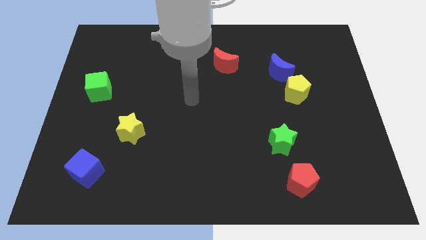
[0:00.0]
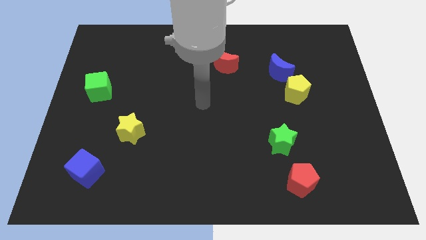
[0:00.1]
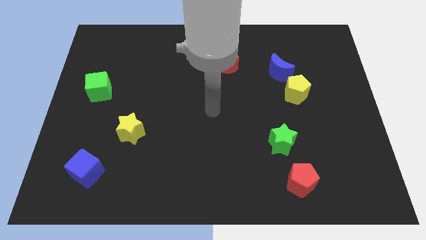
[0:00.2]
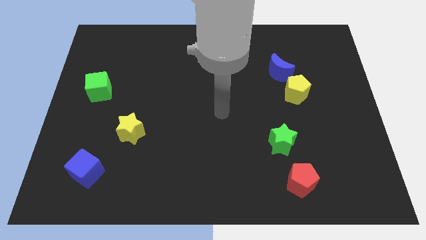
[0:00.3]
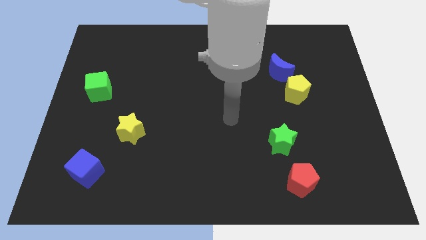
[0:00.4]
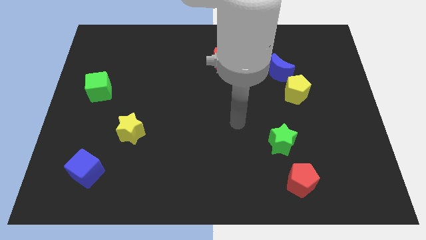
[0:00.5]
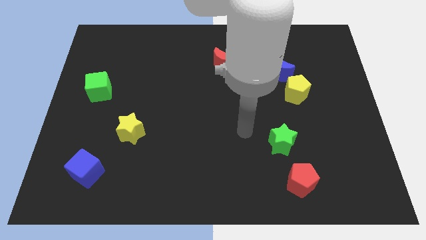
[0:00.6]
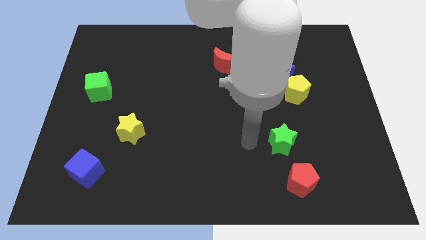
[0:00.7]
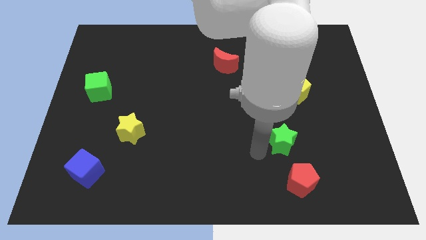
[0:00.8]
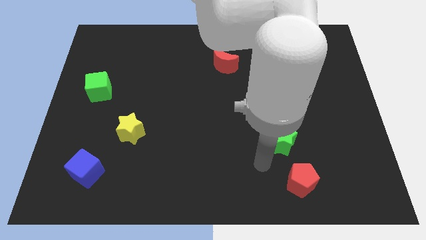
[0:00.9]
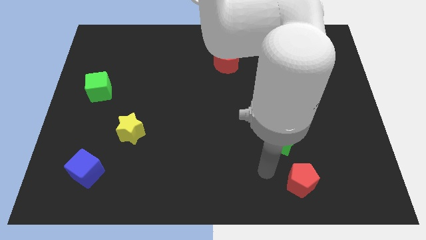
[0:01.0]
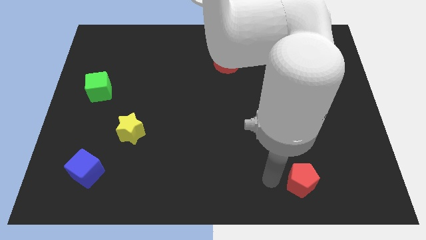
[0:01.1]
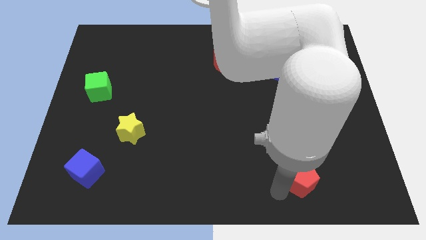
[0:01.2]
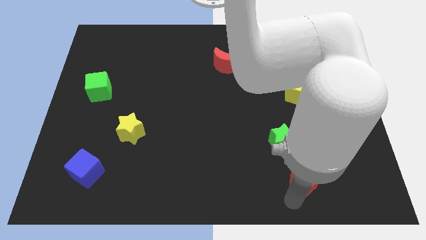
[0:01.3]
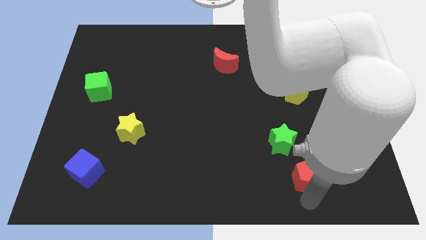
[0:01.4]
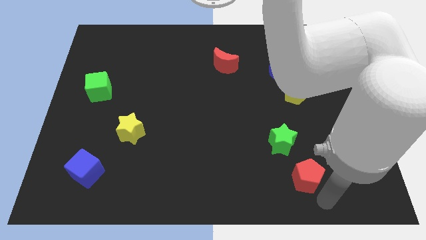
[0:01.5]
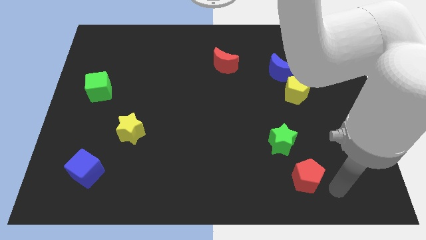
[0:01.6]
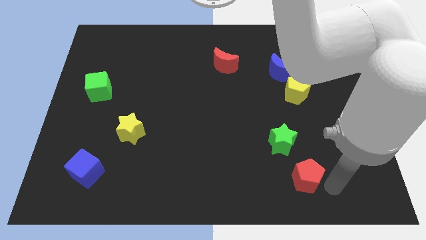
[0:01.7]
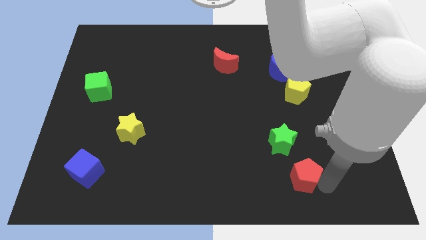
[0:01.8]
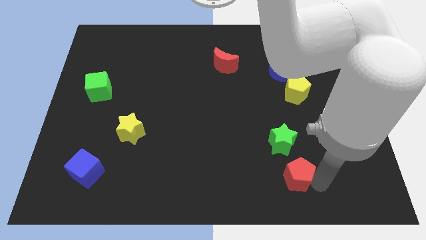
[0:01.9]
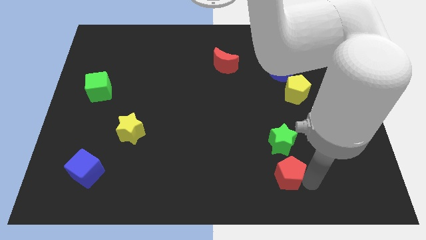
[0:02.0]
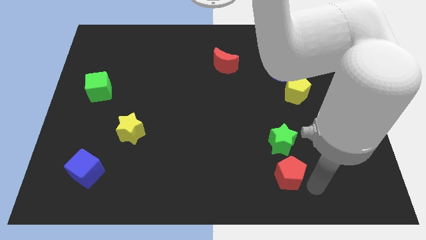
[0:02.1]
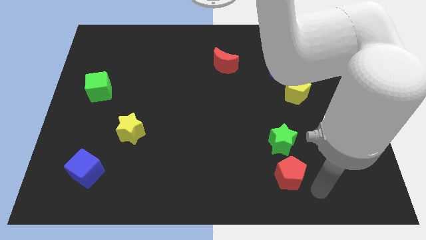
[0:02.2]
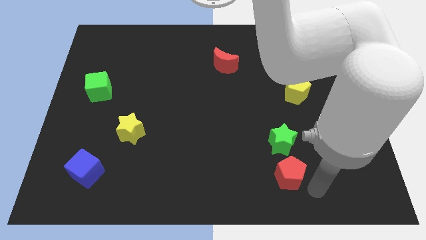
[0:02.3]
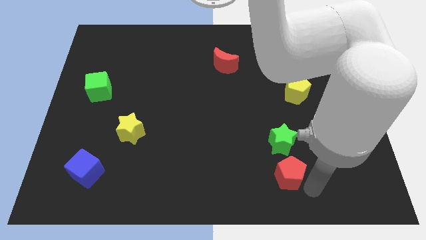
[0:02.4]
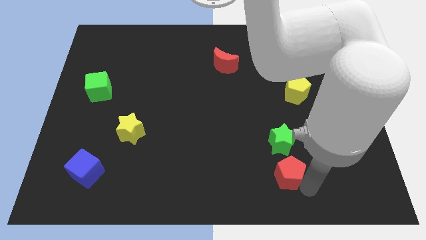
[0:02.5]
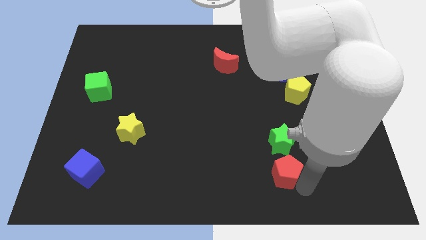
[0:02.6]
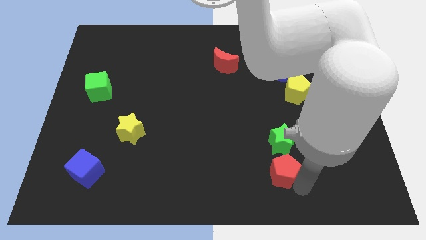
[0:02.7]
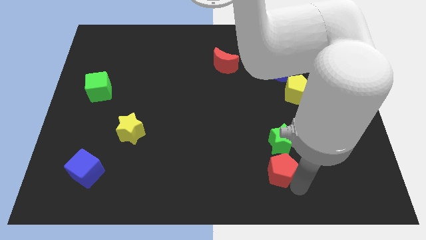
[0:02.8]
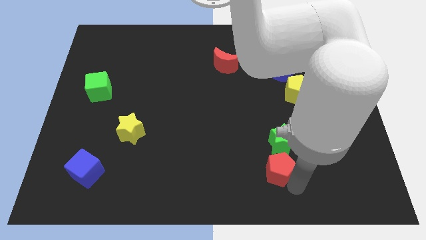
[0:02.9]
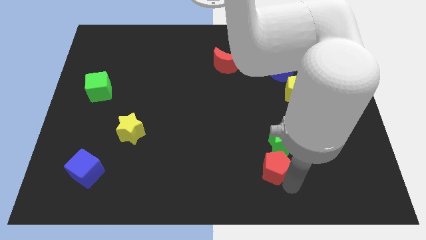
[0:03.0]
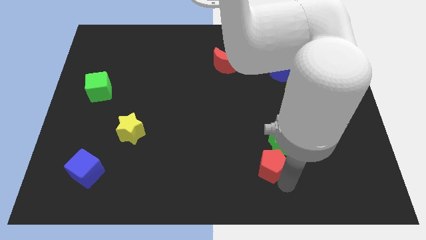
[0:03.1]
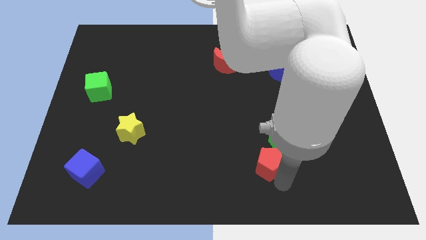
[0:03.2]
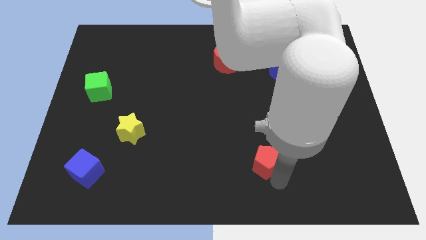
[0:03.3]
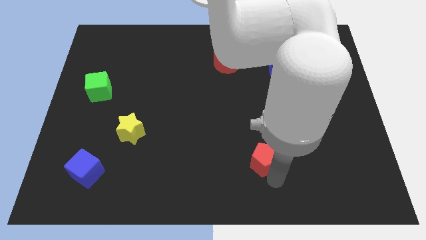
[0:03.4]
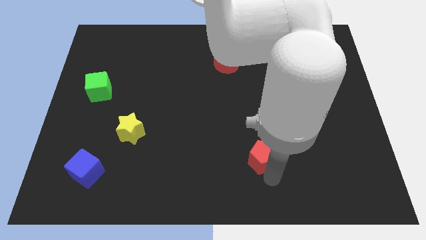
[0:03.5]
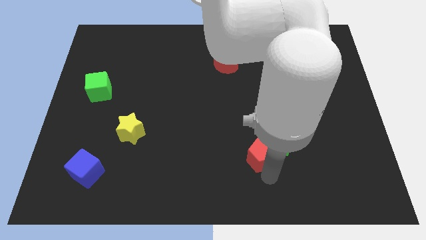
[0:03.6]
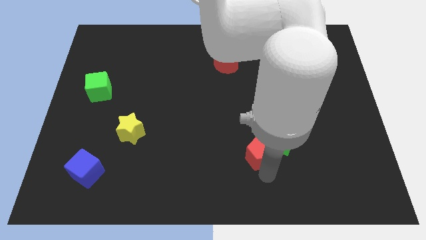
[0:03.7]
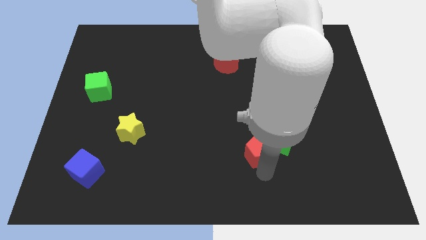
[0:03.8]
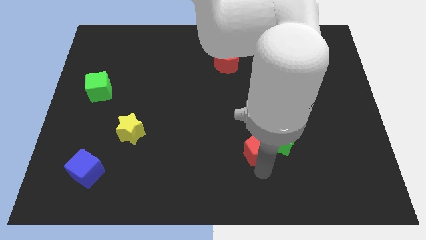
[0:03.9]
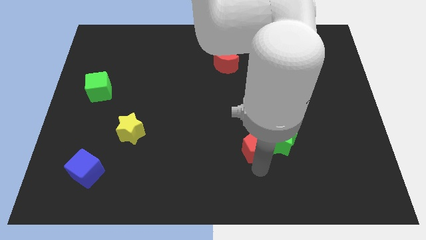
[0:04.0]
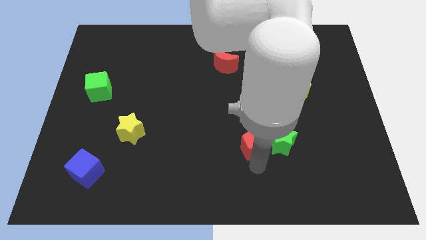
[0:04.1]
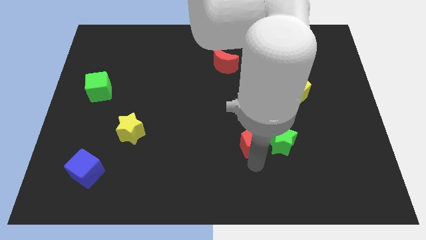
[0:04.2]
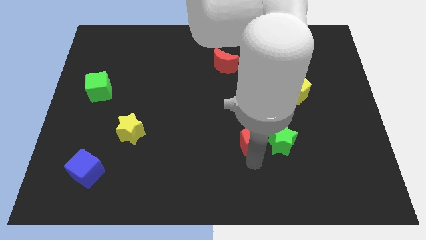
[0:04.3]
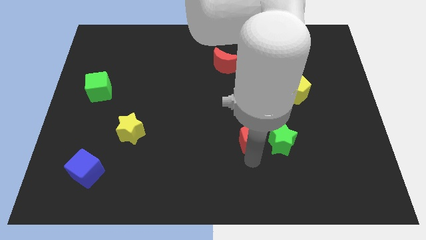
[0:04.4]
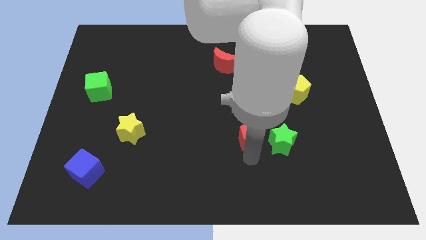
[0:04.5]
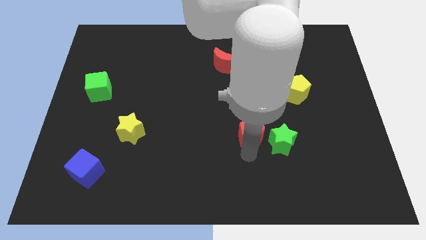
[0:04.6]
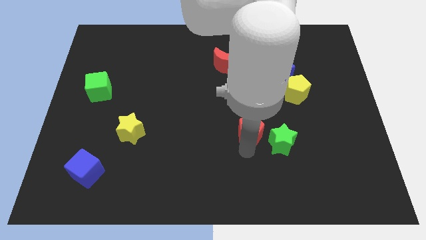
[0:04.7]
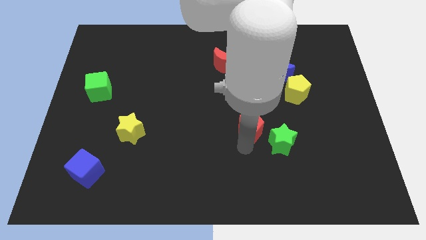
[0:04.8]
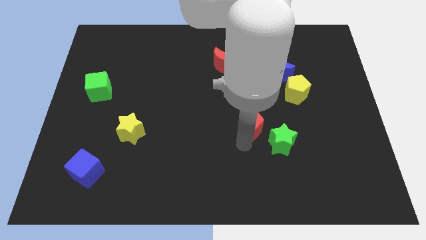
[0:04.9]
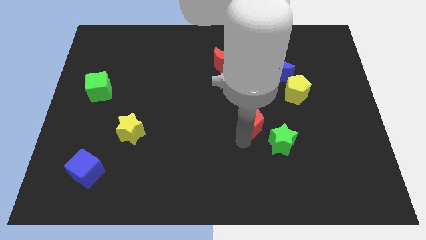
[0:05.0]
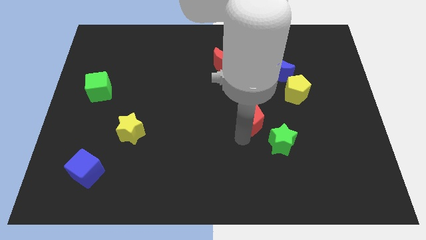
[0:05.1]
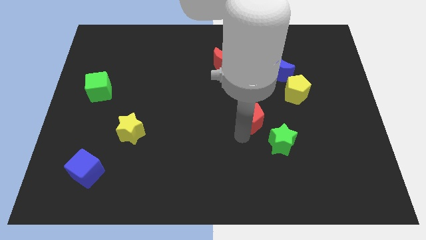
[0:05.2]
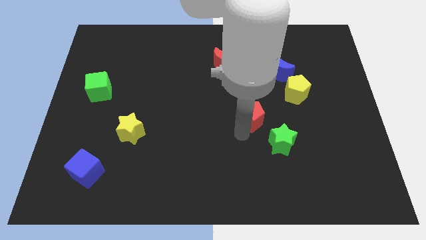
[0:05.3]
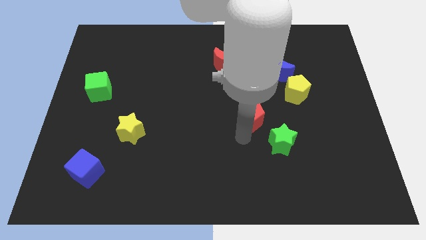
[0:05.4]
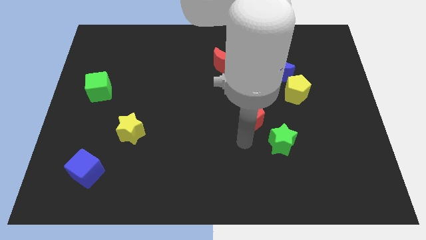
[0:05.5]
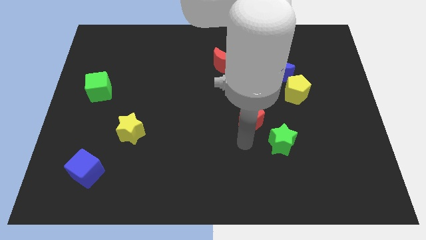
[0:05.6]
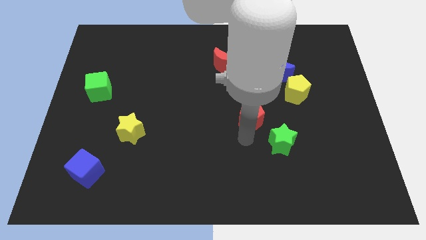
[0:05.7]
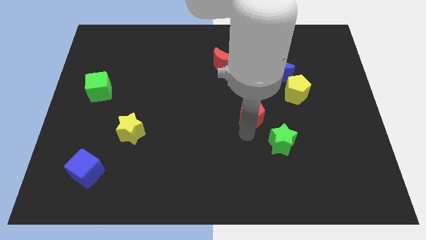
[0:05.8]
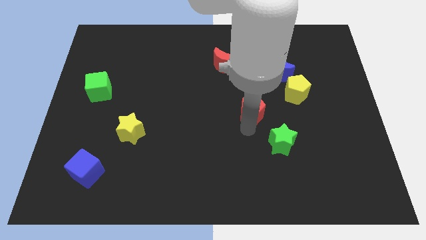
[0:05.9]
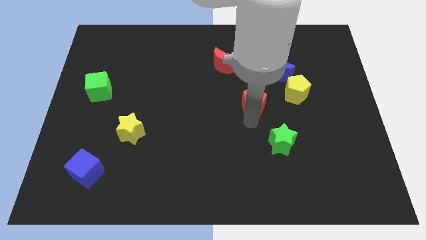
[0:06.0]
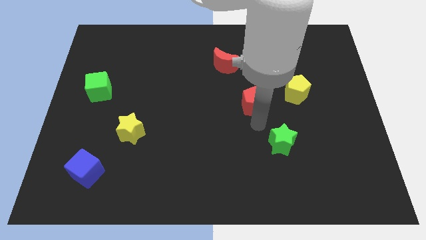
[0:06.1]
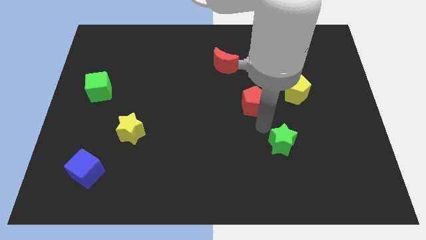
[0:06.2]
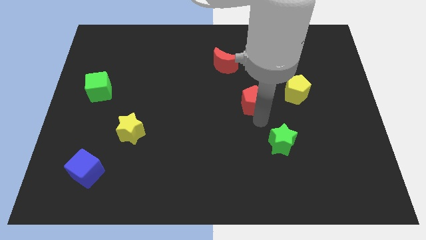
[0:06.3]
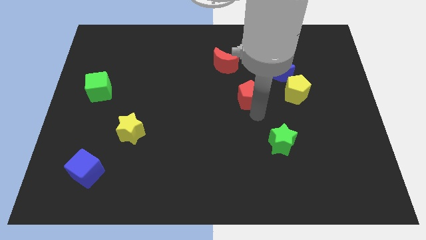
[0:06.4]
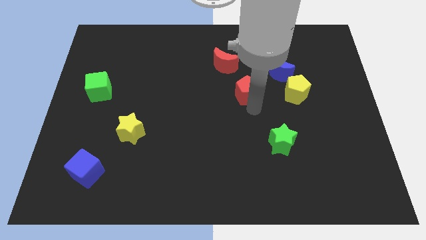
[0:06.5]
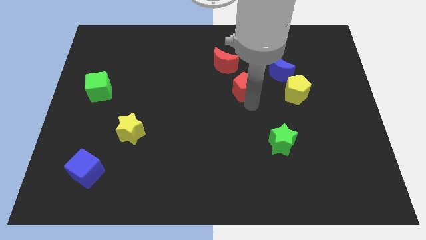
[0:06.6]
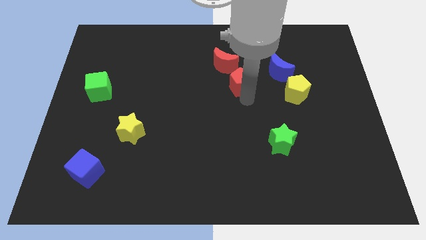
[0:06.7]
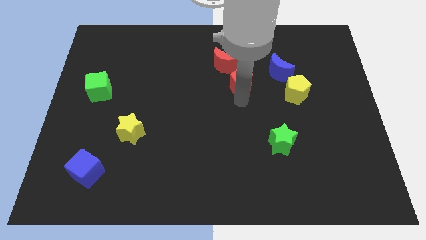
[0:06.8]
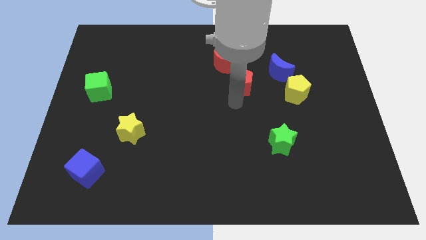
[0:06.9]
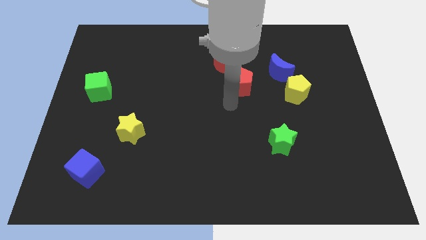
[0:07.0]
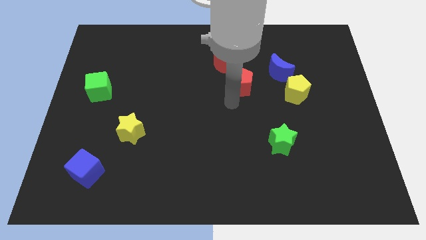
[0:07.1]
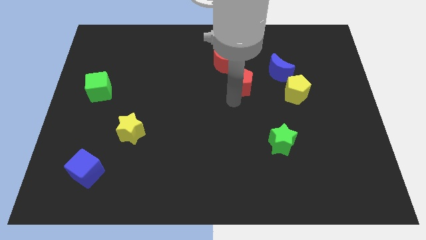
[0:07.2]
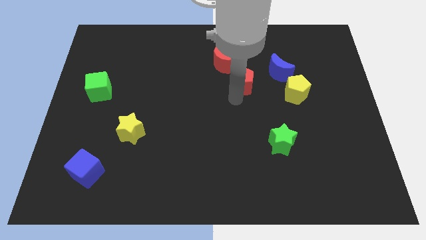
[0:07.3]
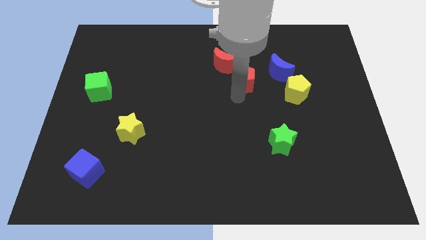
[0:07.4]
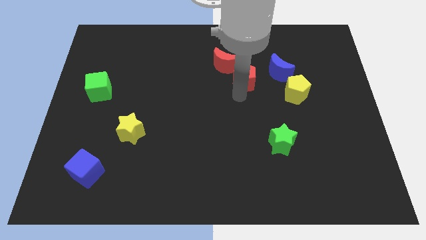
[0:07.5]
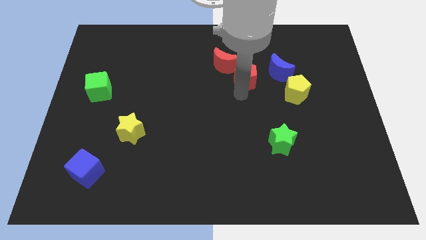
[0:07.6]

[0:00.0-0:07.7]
put the red pentagon to the right of the red moon
